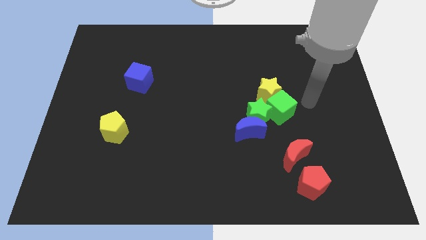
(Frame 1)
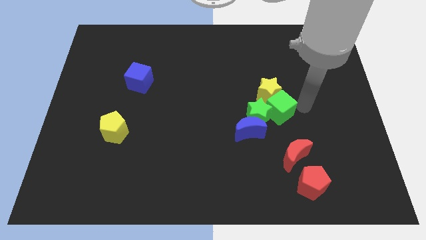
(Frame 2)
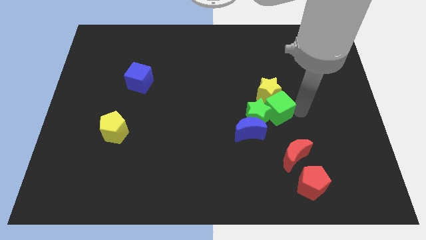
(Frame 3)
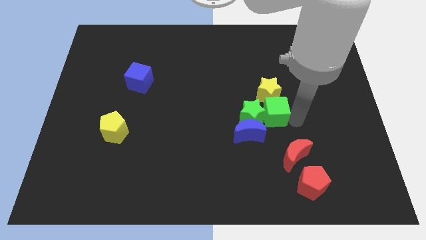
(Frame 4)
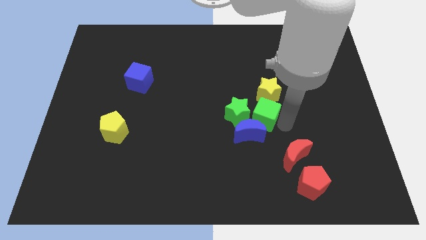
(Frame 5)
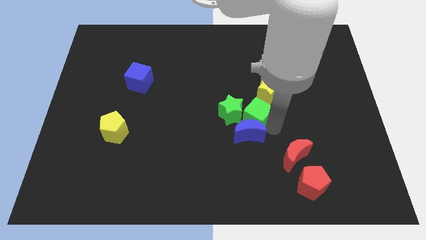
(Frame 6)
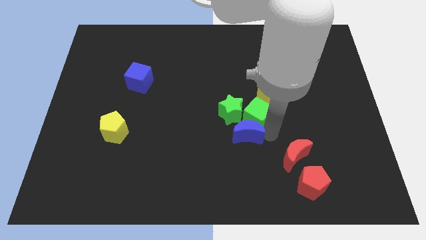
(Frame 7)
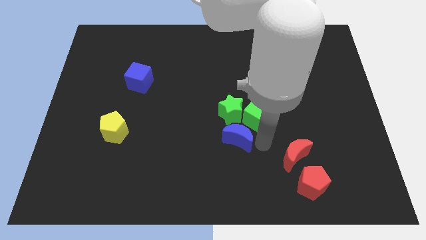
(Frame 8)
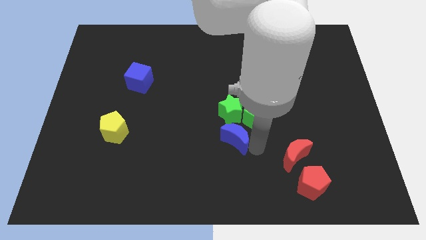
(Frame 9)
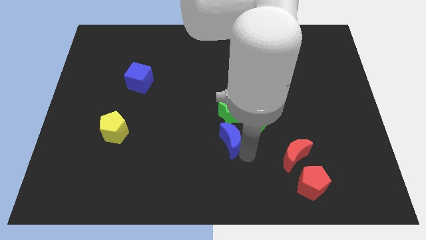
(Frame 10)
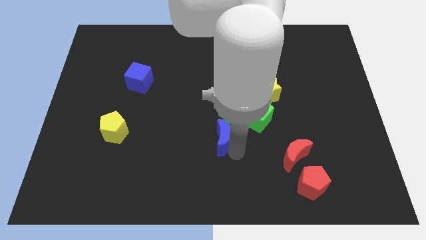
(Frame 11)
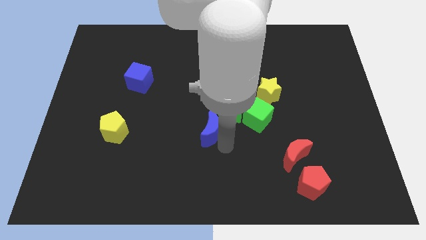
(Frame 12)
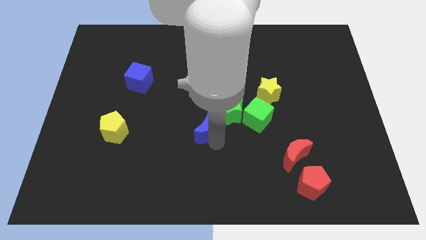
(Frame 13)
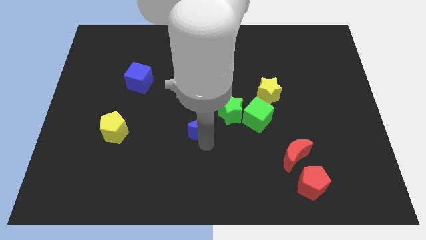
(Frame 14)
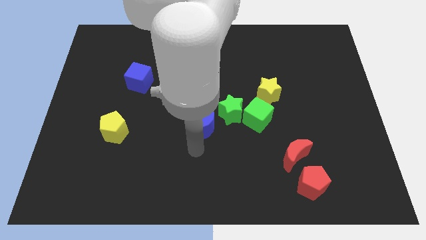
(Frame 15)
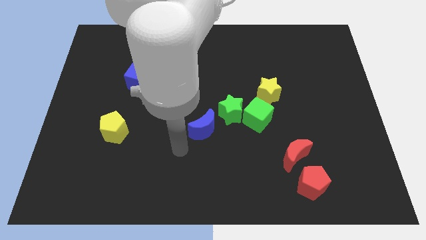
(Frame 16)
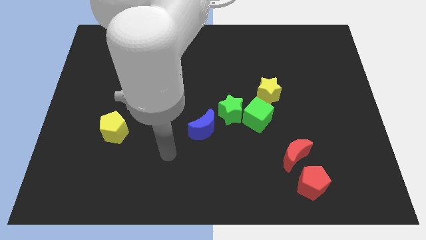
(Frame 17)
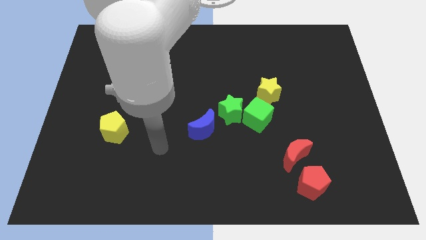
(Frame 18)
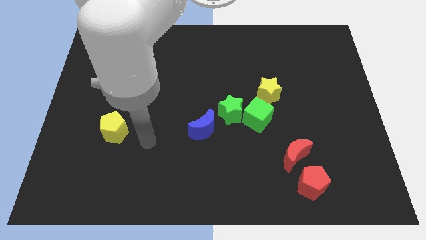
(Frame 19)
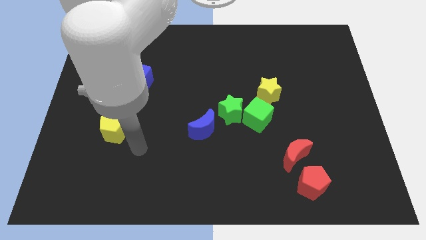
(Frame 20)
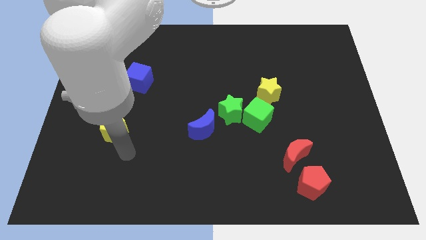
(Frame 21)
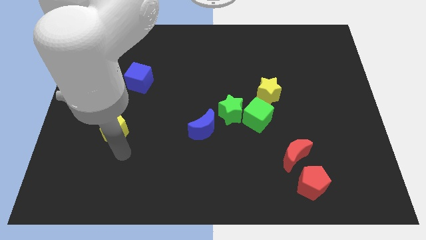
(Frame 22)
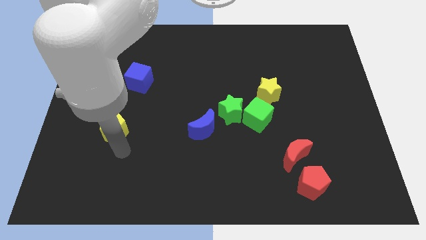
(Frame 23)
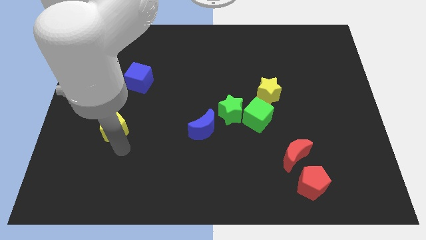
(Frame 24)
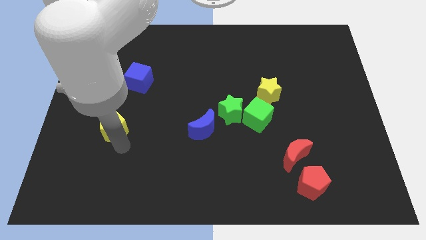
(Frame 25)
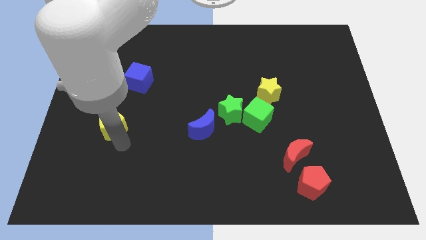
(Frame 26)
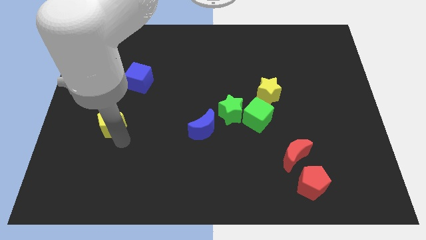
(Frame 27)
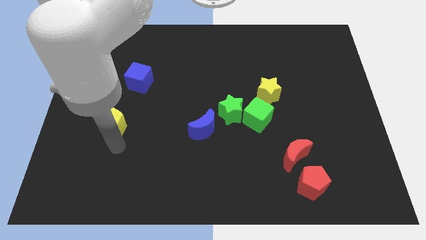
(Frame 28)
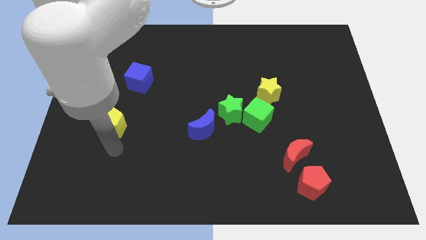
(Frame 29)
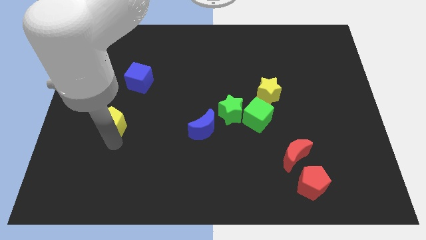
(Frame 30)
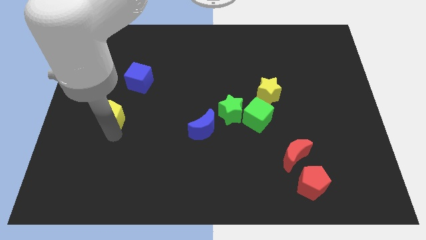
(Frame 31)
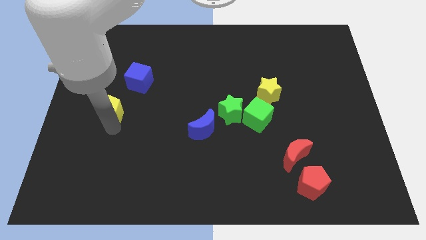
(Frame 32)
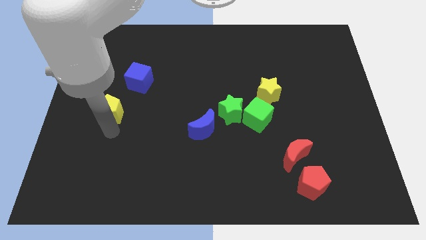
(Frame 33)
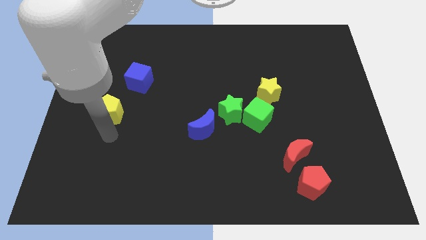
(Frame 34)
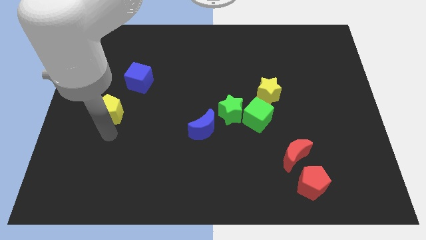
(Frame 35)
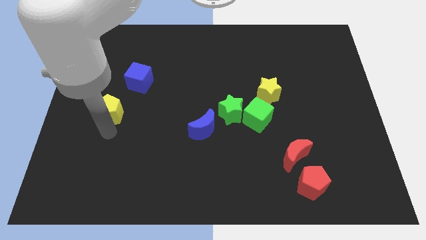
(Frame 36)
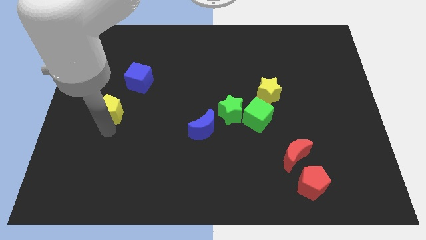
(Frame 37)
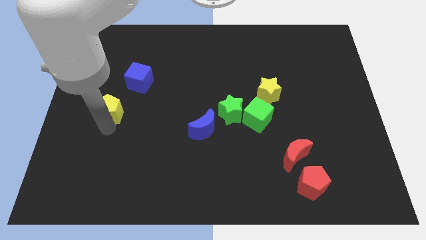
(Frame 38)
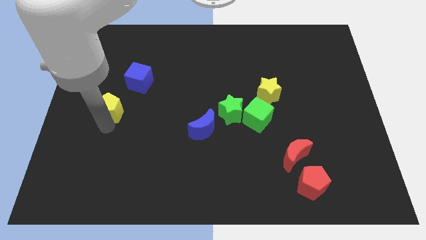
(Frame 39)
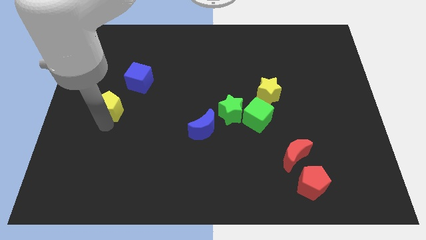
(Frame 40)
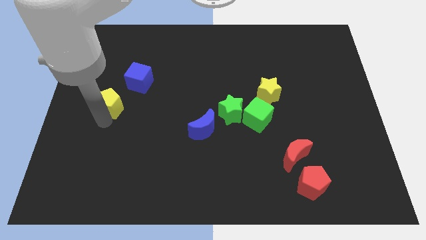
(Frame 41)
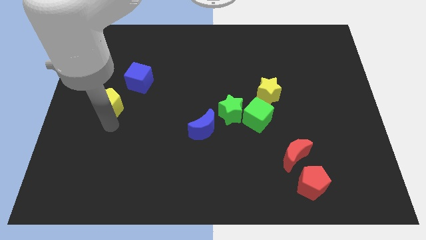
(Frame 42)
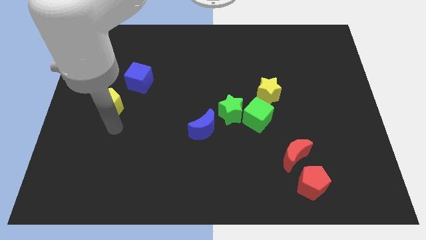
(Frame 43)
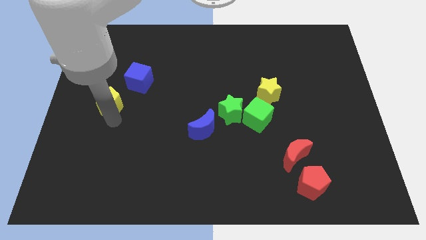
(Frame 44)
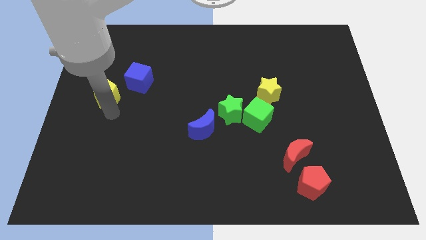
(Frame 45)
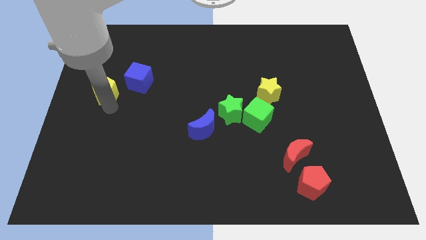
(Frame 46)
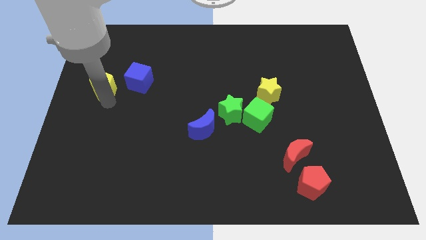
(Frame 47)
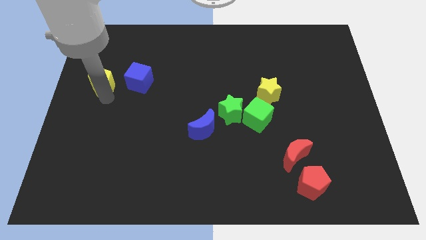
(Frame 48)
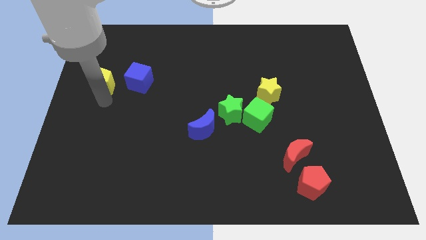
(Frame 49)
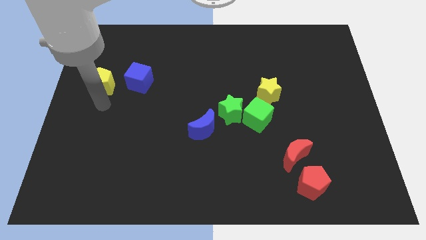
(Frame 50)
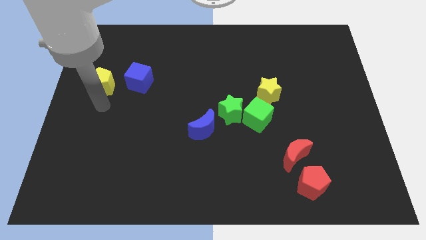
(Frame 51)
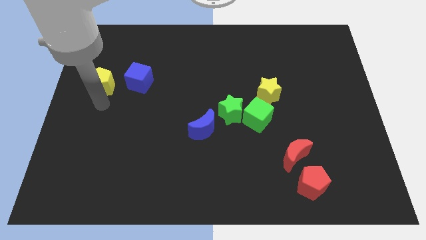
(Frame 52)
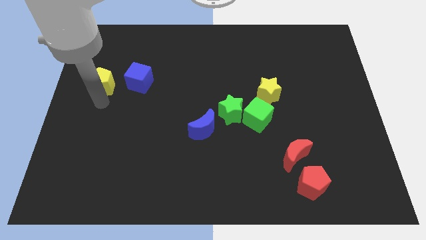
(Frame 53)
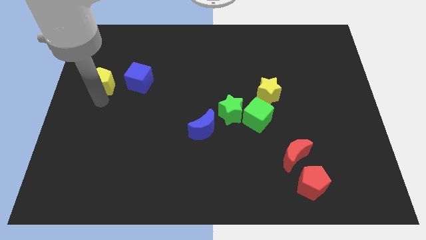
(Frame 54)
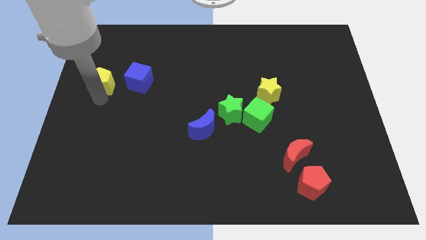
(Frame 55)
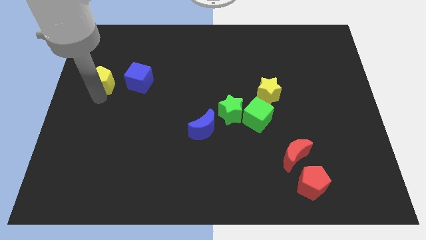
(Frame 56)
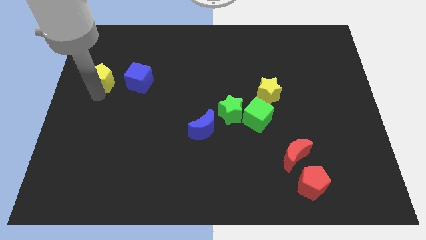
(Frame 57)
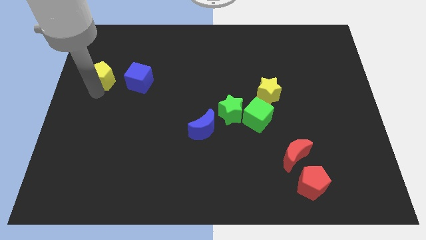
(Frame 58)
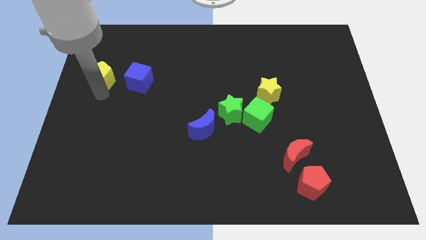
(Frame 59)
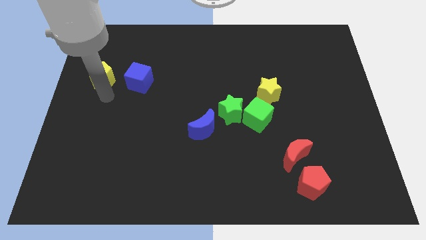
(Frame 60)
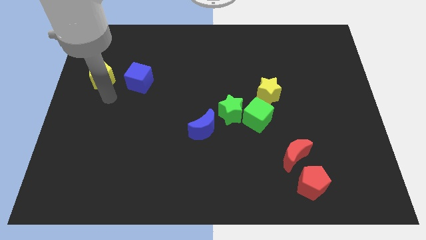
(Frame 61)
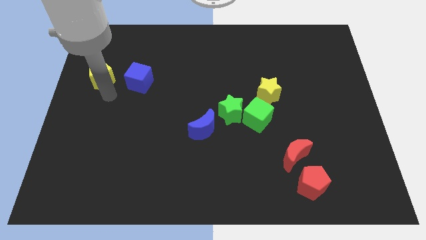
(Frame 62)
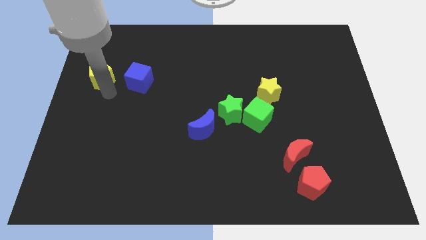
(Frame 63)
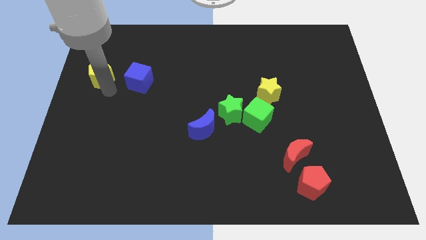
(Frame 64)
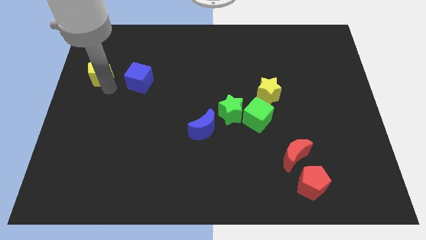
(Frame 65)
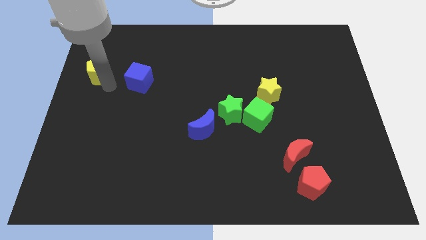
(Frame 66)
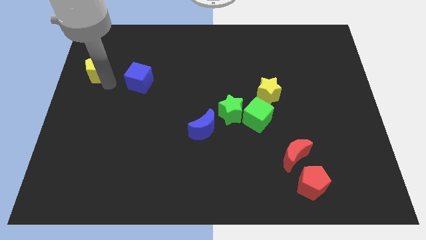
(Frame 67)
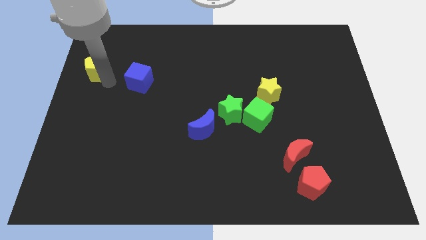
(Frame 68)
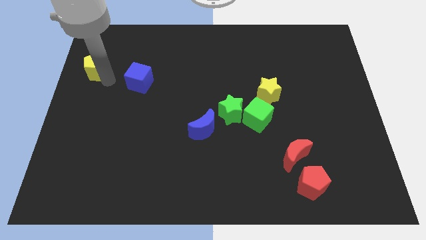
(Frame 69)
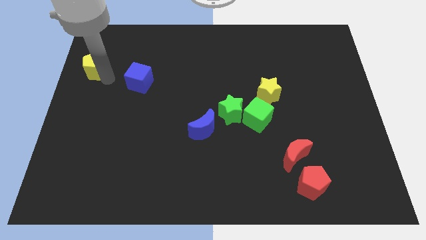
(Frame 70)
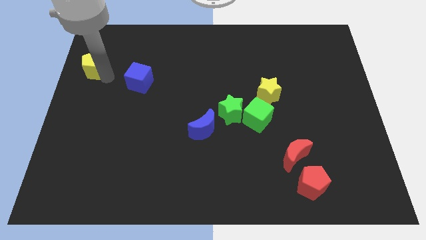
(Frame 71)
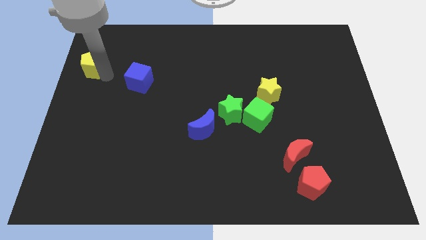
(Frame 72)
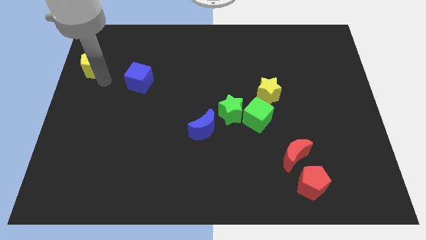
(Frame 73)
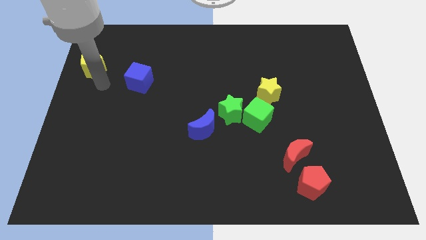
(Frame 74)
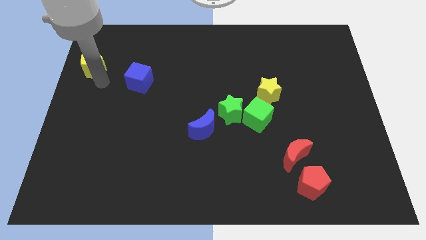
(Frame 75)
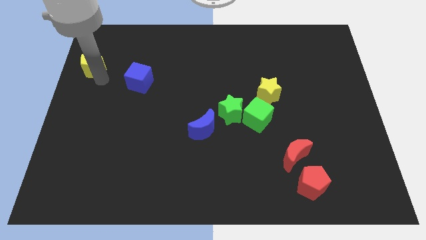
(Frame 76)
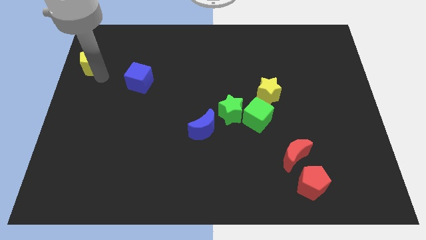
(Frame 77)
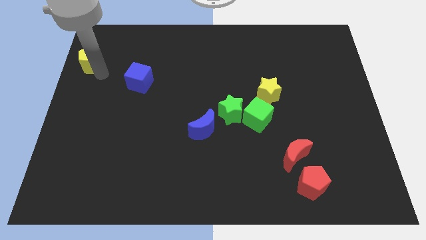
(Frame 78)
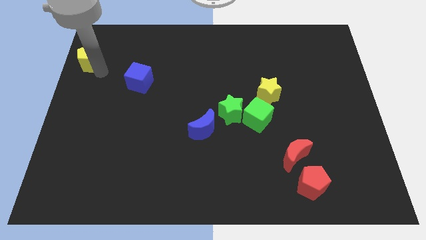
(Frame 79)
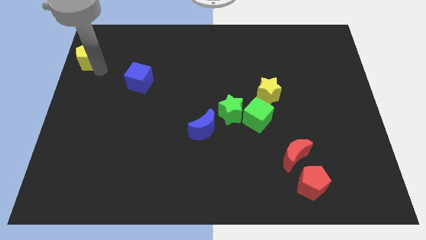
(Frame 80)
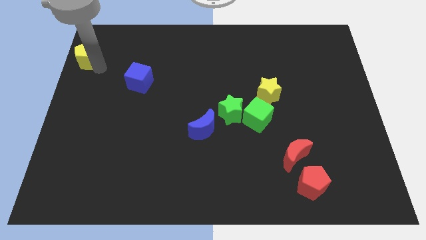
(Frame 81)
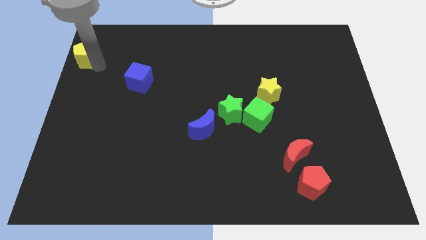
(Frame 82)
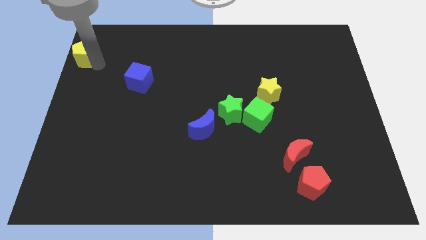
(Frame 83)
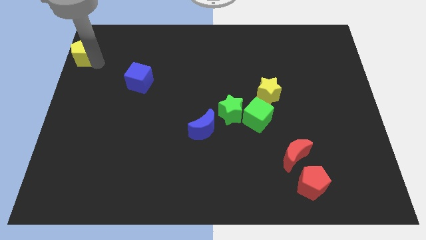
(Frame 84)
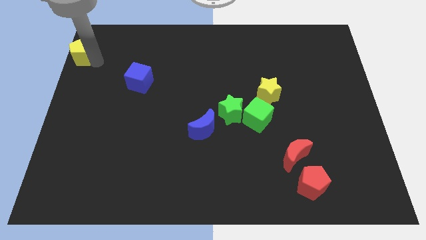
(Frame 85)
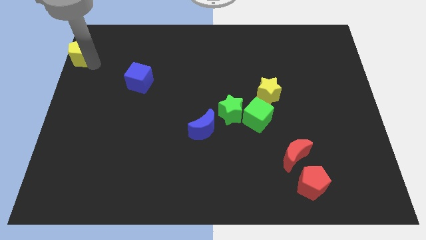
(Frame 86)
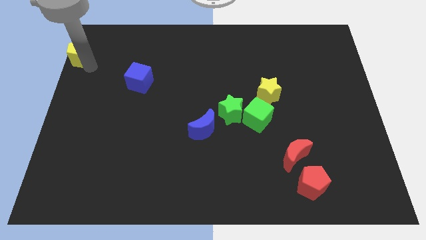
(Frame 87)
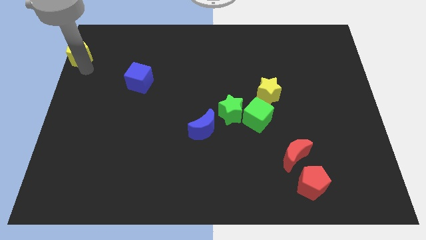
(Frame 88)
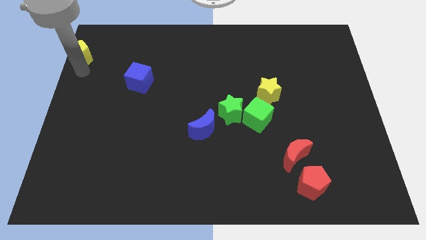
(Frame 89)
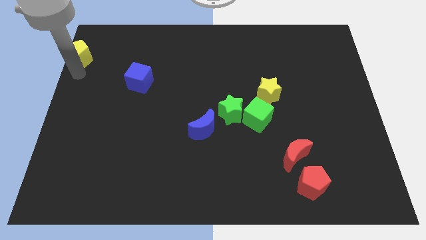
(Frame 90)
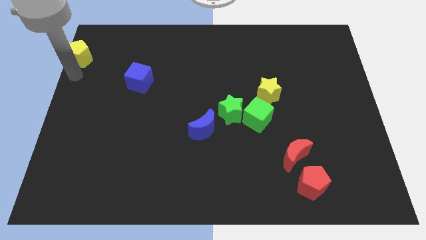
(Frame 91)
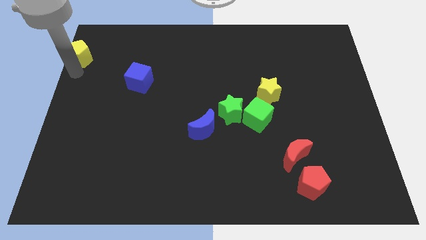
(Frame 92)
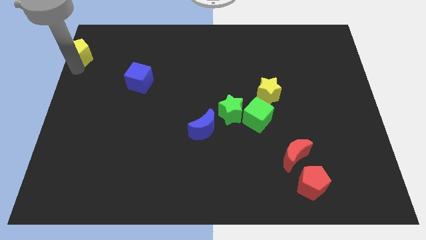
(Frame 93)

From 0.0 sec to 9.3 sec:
move the yellow pentagon to the top left of the board
